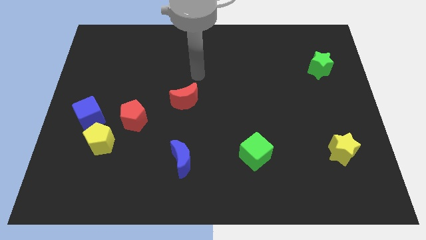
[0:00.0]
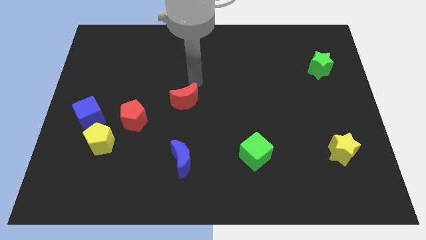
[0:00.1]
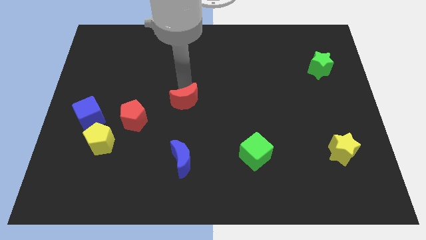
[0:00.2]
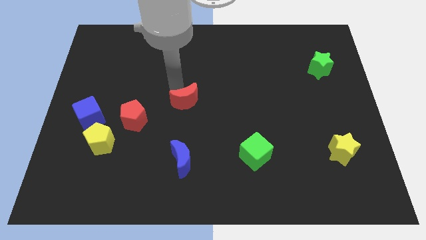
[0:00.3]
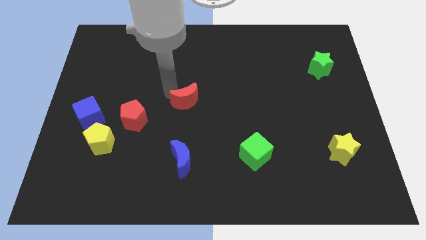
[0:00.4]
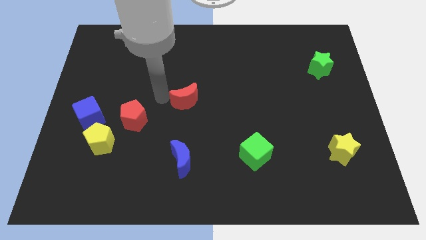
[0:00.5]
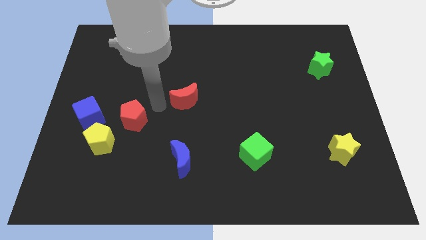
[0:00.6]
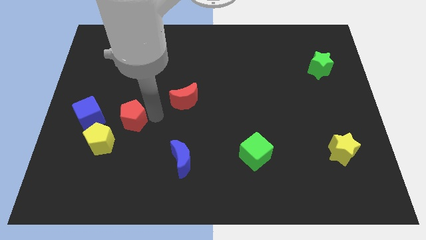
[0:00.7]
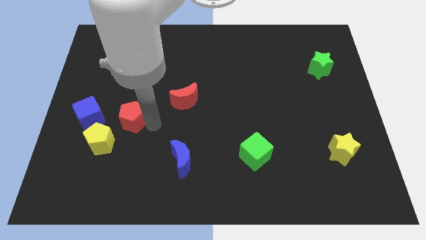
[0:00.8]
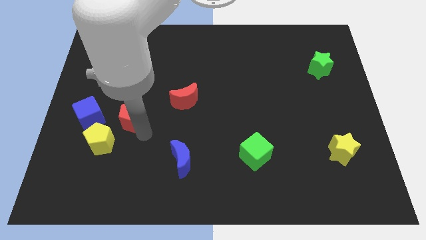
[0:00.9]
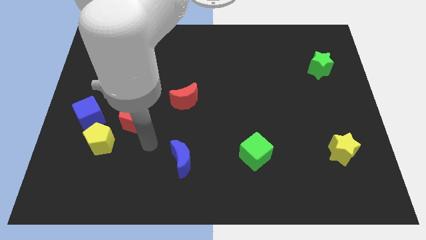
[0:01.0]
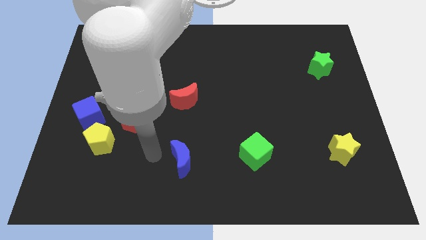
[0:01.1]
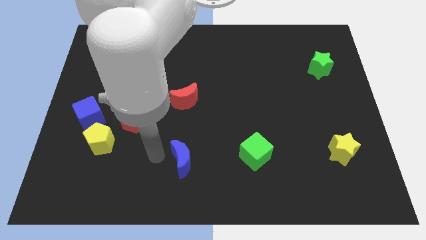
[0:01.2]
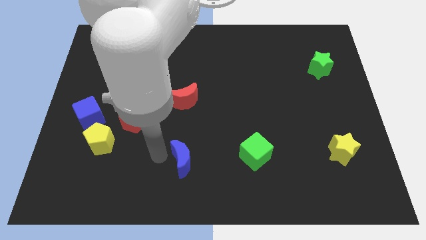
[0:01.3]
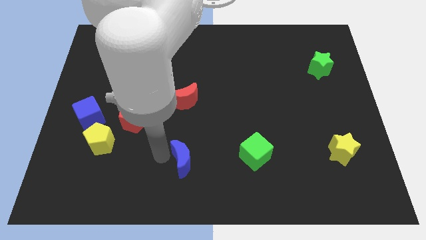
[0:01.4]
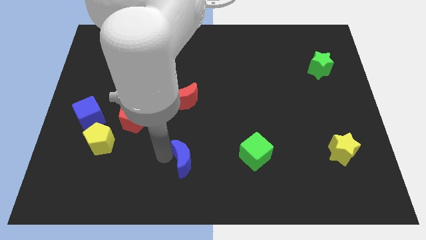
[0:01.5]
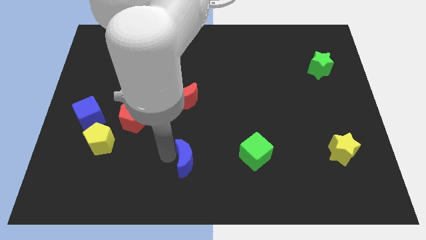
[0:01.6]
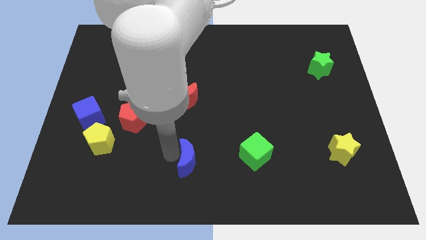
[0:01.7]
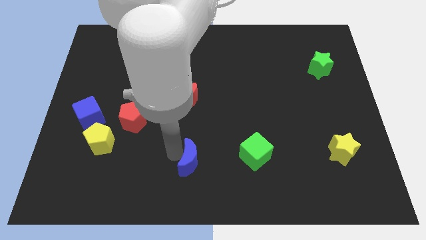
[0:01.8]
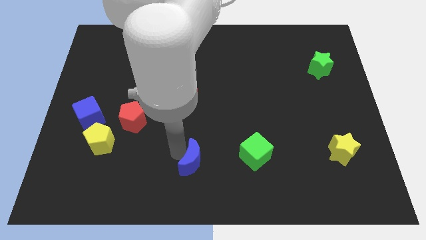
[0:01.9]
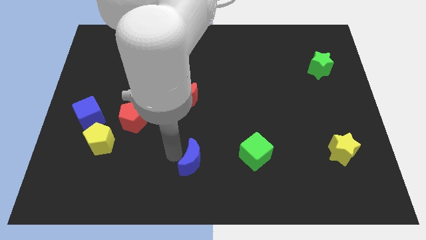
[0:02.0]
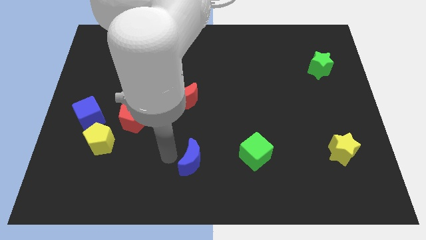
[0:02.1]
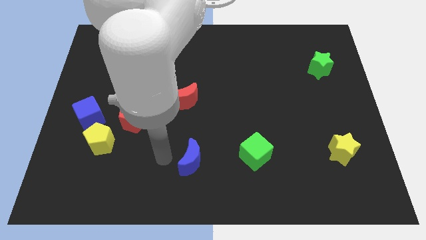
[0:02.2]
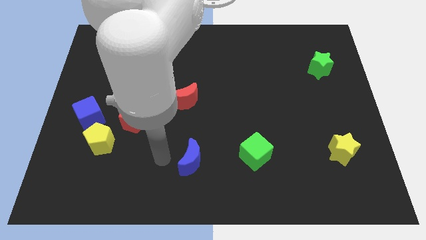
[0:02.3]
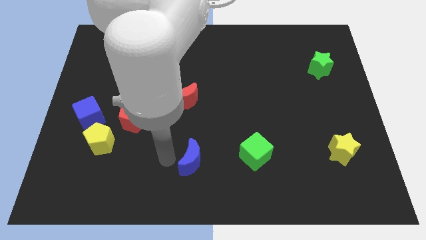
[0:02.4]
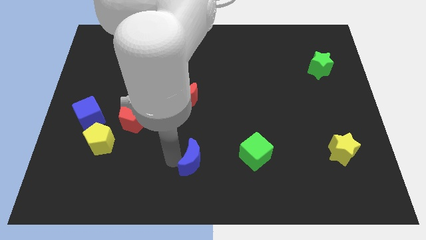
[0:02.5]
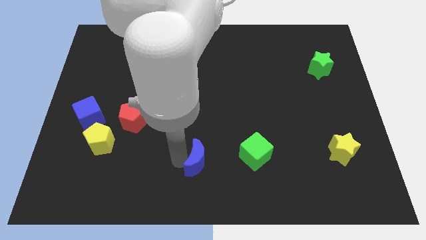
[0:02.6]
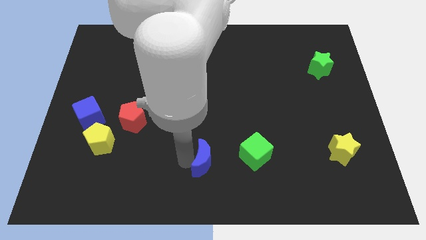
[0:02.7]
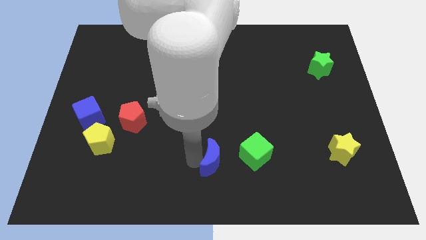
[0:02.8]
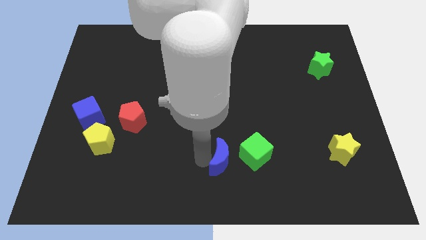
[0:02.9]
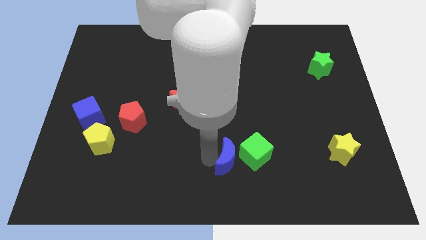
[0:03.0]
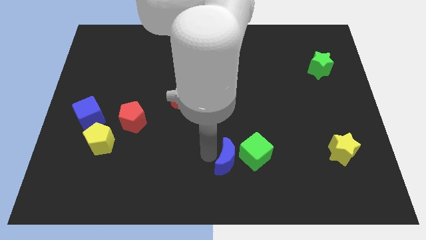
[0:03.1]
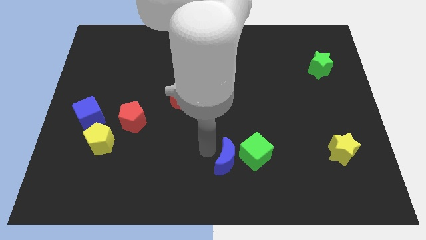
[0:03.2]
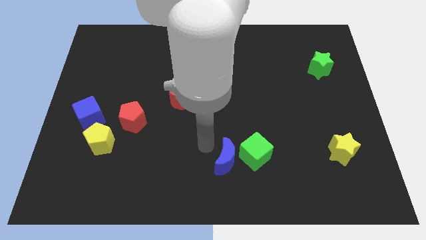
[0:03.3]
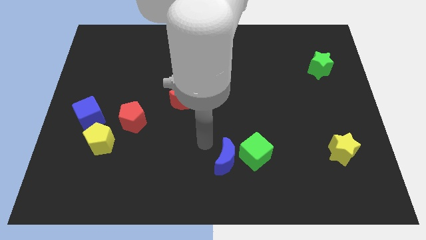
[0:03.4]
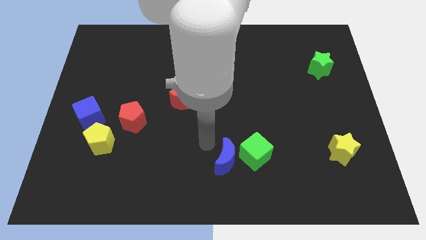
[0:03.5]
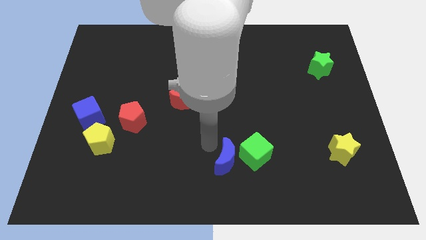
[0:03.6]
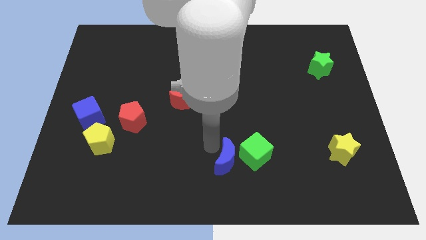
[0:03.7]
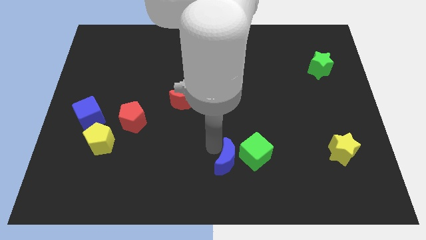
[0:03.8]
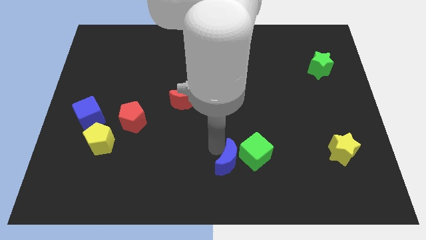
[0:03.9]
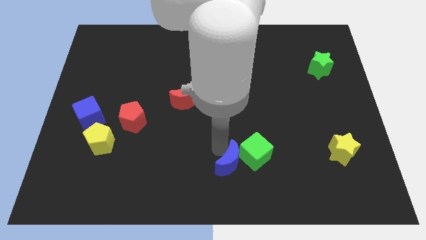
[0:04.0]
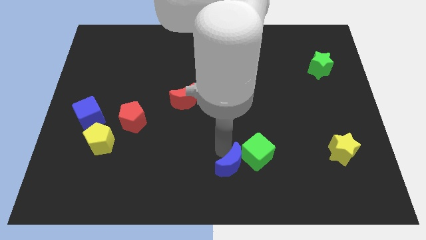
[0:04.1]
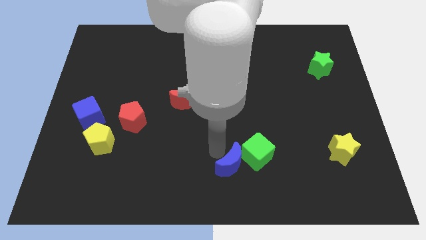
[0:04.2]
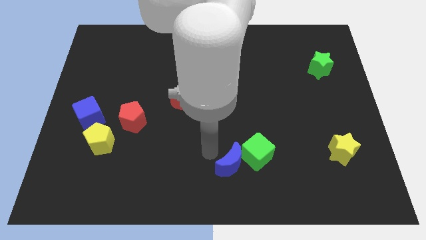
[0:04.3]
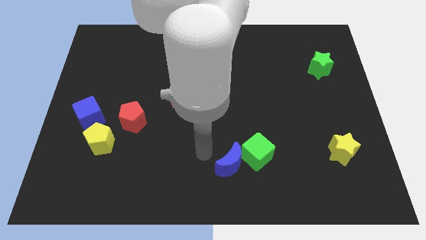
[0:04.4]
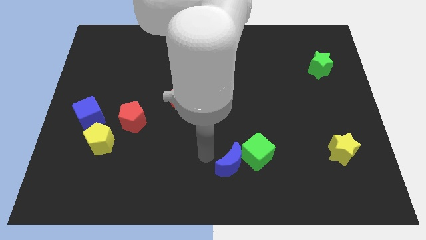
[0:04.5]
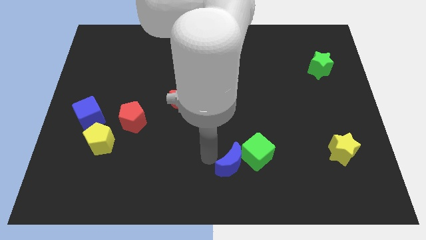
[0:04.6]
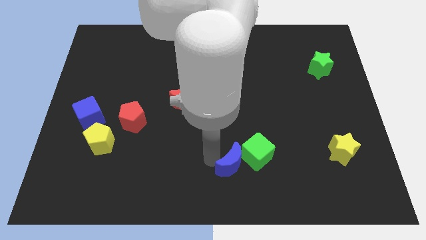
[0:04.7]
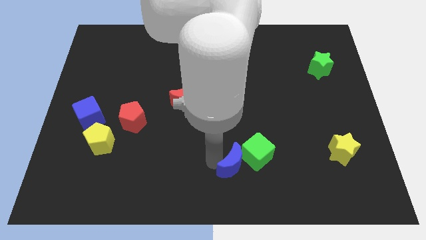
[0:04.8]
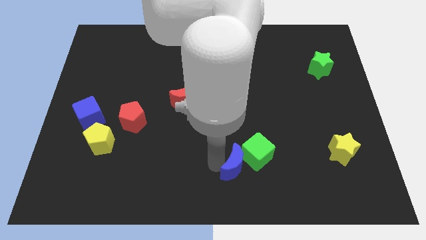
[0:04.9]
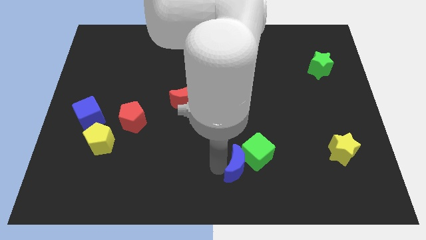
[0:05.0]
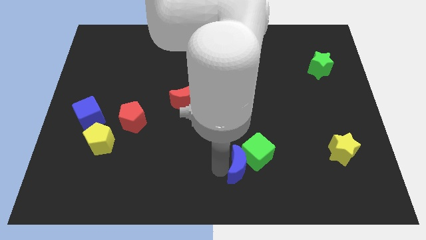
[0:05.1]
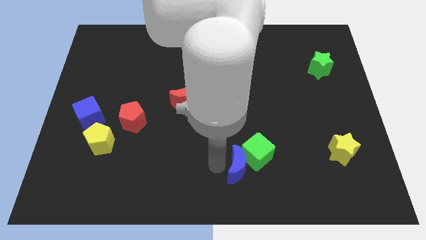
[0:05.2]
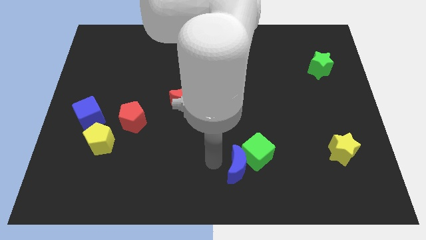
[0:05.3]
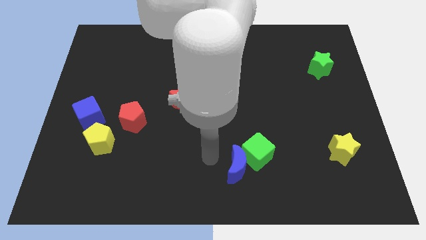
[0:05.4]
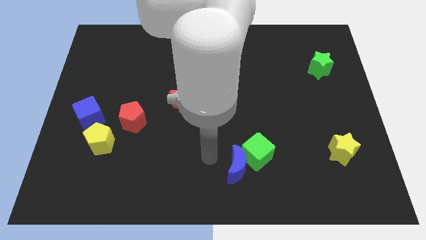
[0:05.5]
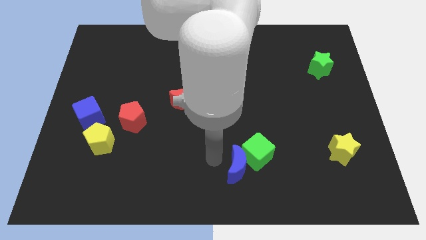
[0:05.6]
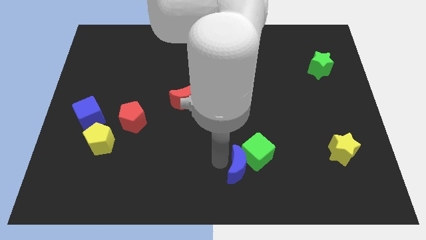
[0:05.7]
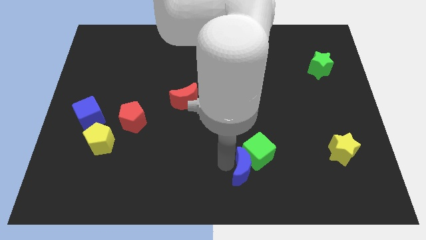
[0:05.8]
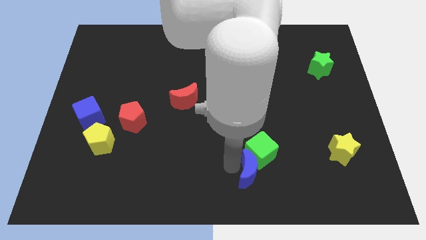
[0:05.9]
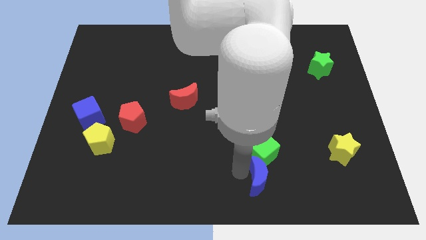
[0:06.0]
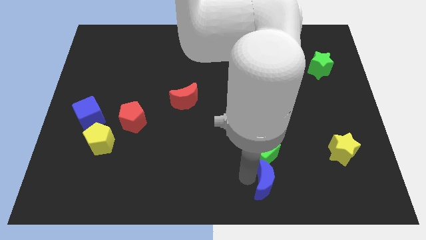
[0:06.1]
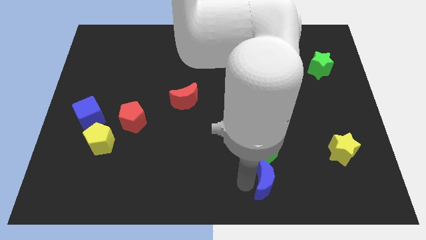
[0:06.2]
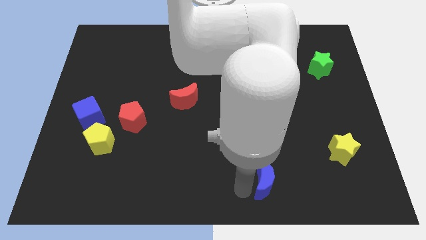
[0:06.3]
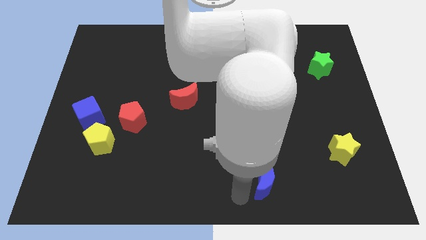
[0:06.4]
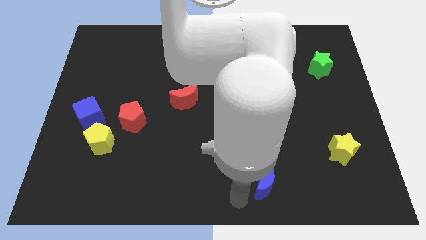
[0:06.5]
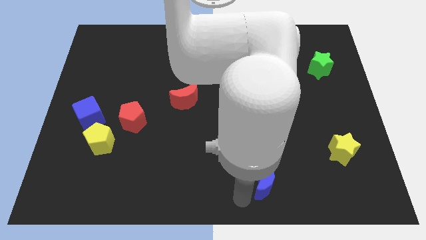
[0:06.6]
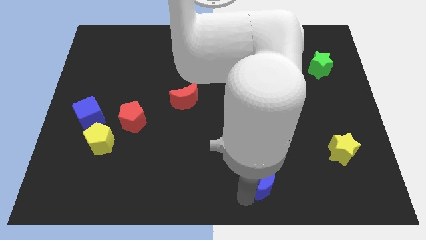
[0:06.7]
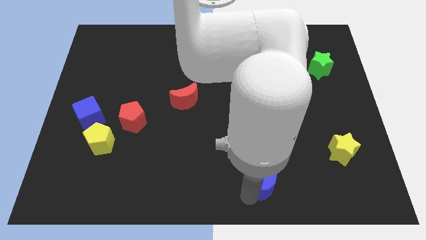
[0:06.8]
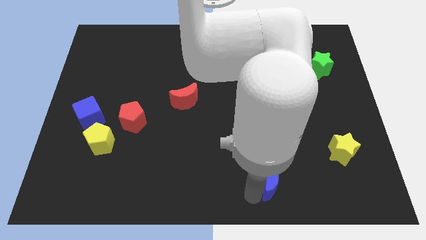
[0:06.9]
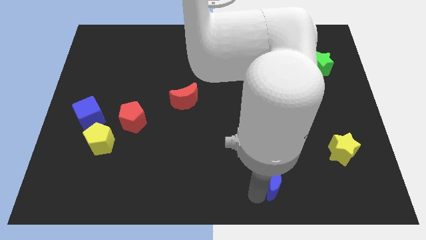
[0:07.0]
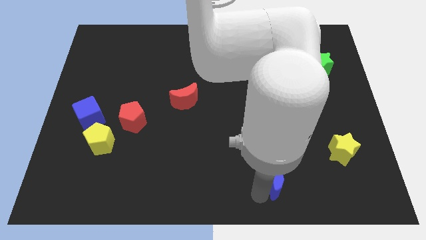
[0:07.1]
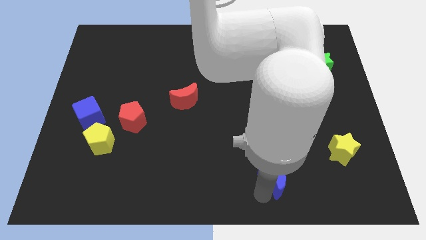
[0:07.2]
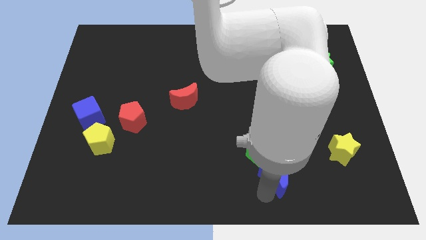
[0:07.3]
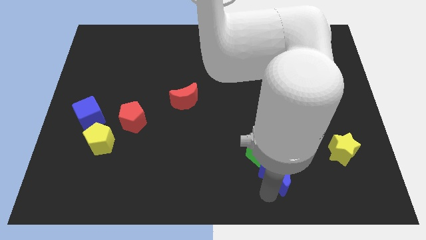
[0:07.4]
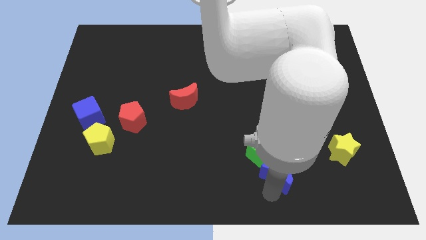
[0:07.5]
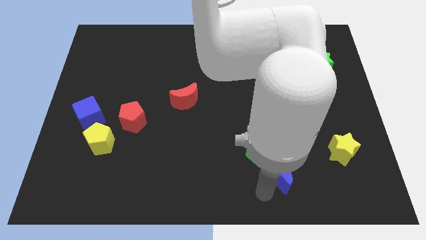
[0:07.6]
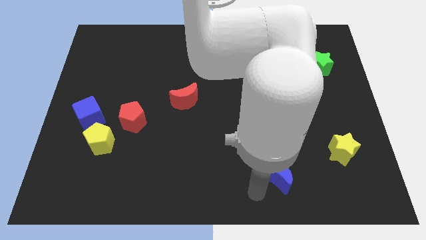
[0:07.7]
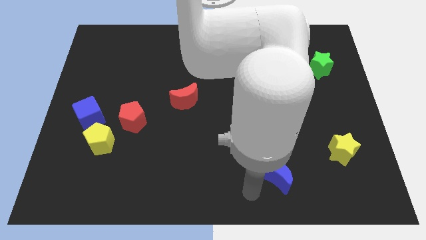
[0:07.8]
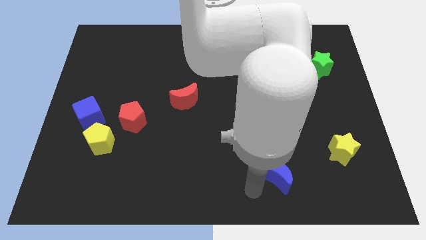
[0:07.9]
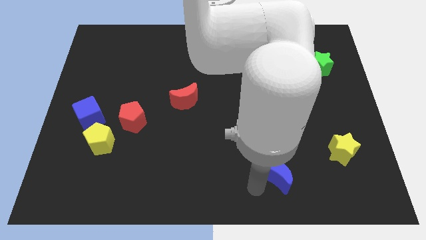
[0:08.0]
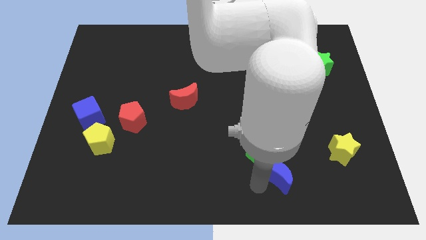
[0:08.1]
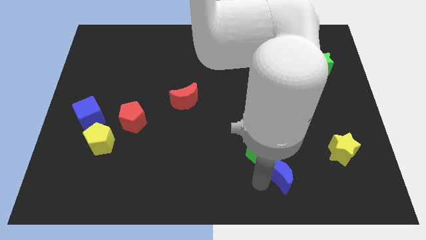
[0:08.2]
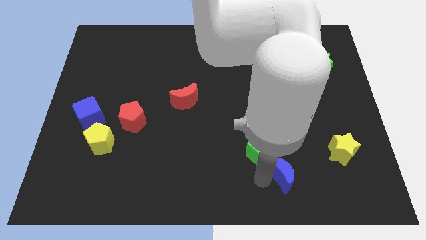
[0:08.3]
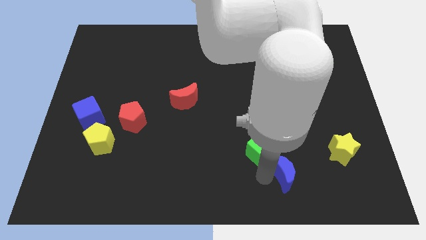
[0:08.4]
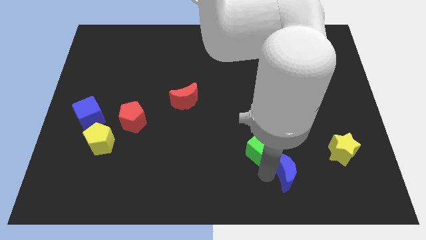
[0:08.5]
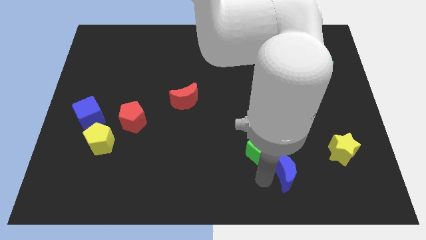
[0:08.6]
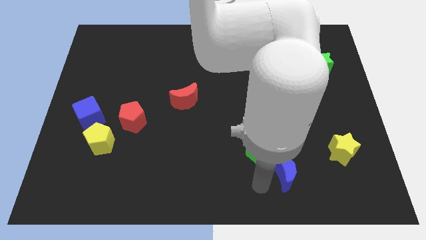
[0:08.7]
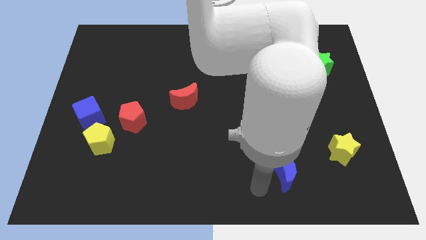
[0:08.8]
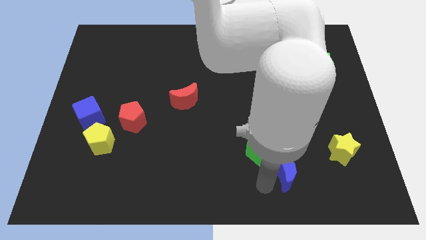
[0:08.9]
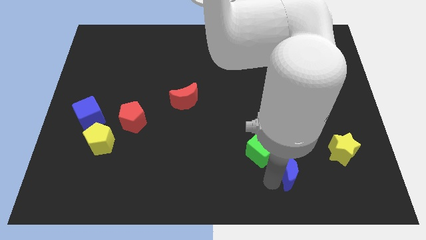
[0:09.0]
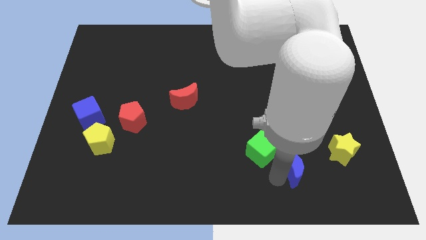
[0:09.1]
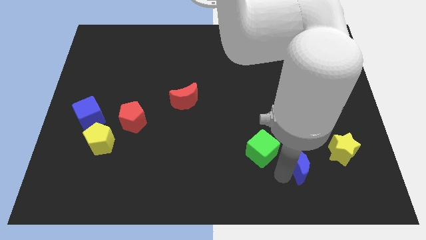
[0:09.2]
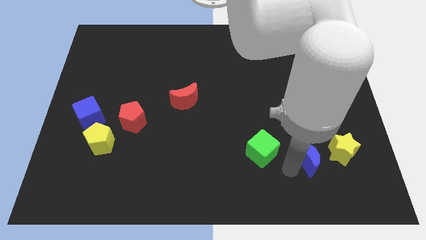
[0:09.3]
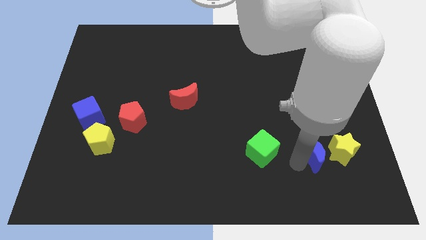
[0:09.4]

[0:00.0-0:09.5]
push the blue moon to the yellow star
